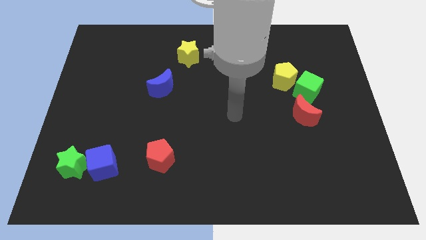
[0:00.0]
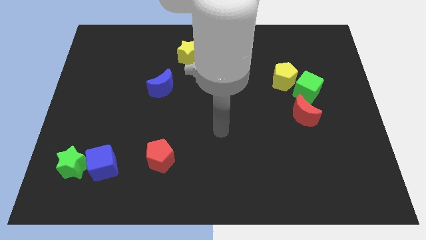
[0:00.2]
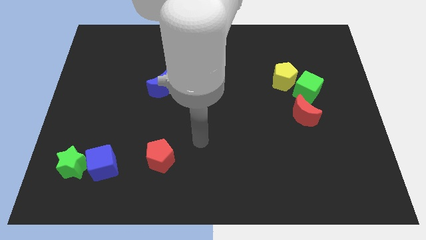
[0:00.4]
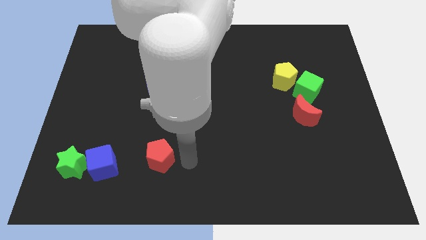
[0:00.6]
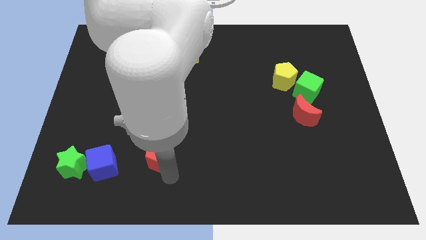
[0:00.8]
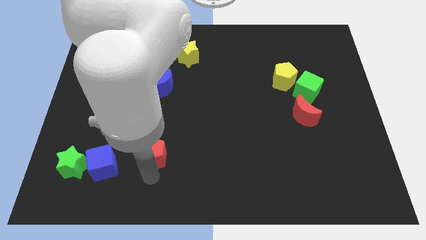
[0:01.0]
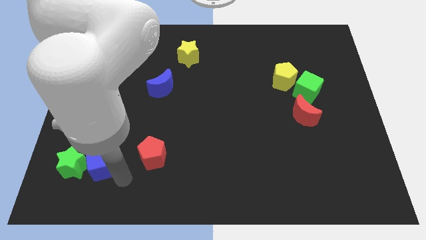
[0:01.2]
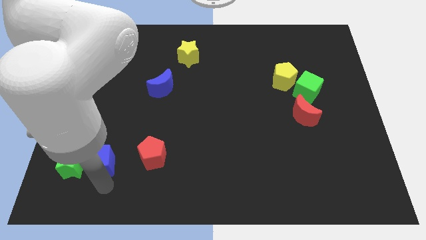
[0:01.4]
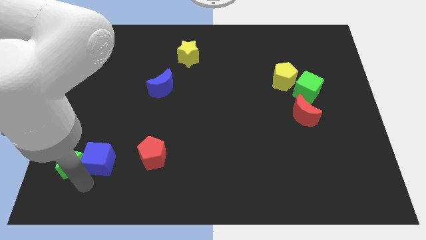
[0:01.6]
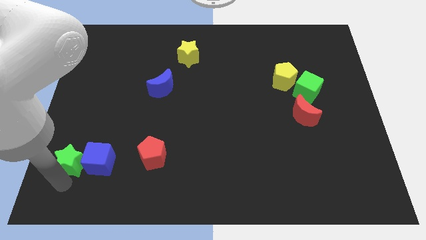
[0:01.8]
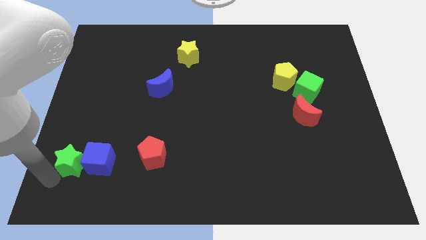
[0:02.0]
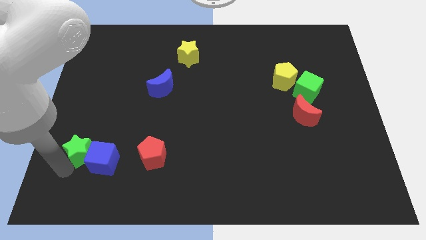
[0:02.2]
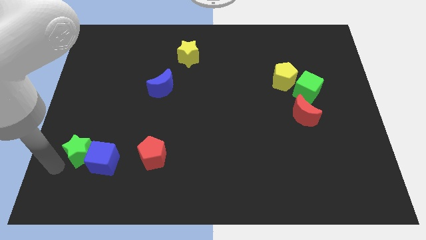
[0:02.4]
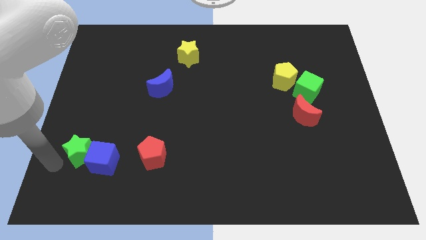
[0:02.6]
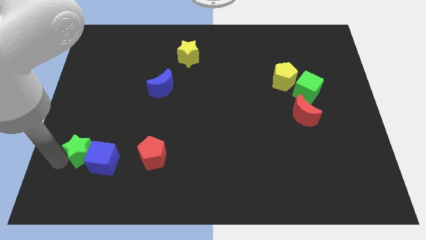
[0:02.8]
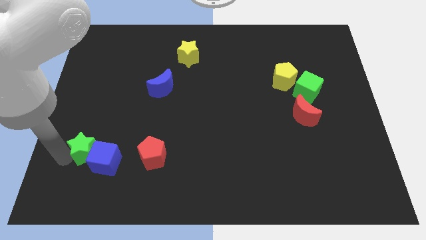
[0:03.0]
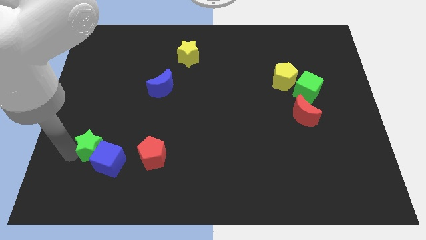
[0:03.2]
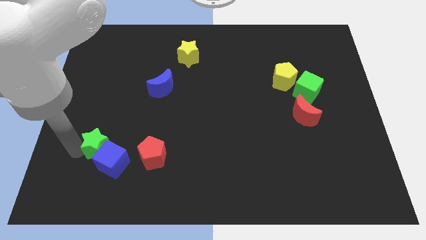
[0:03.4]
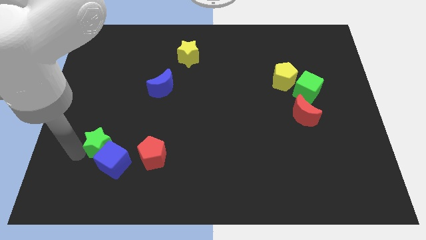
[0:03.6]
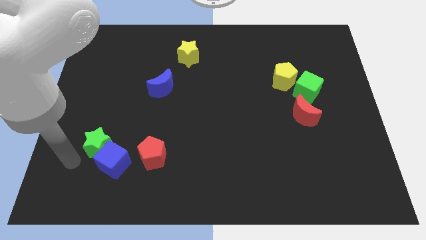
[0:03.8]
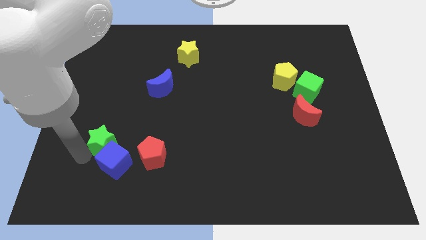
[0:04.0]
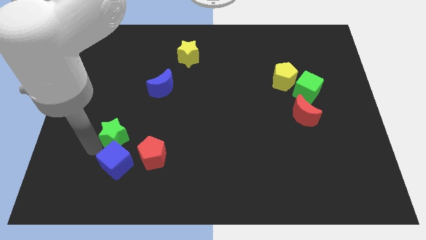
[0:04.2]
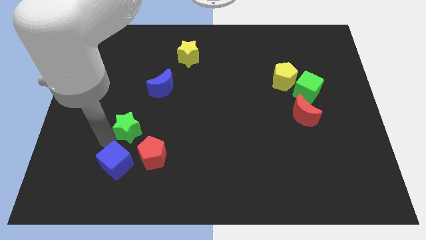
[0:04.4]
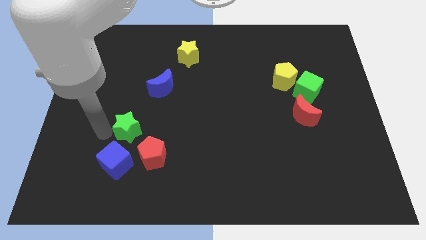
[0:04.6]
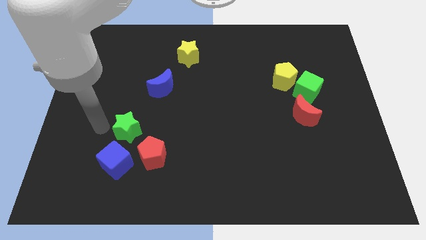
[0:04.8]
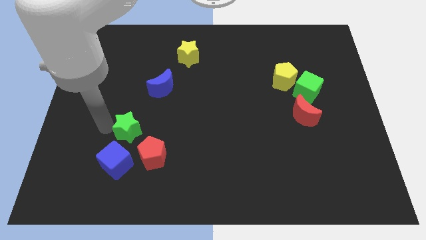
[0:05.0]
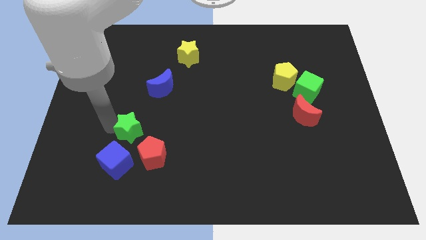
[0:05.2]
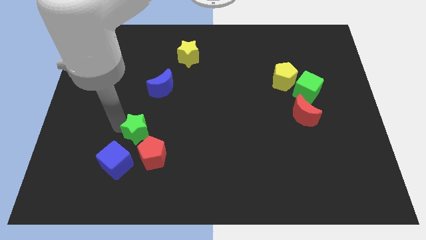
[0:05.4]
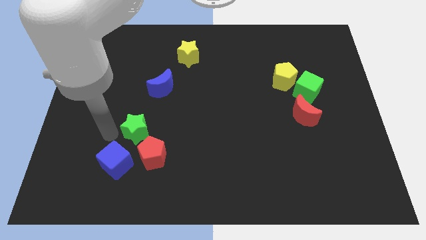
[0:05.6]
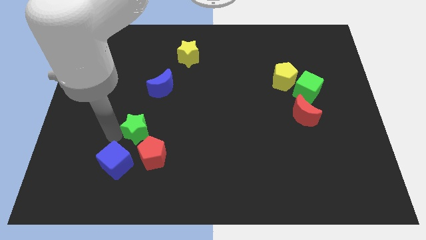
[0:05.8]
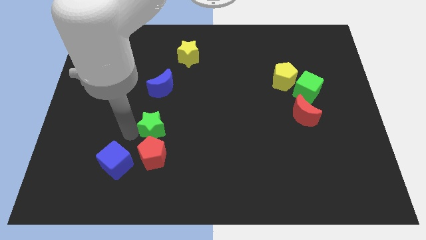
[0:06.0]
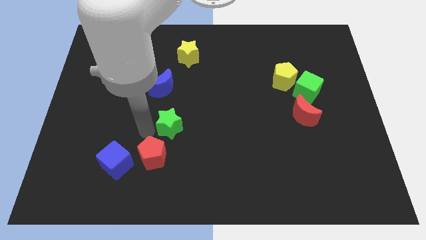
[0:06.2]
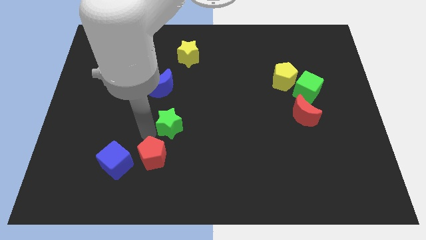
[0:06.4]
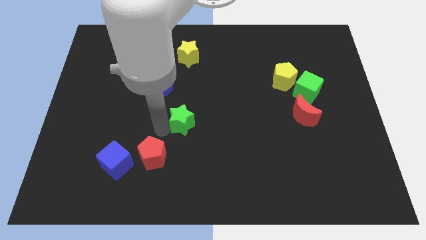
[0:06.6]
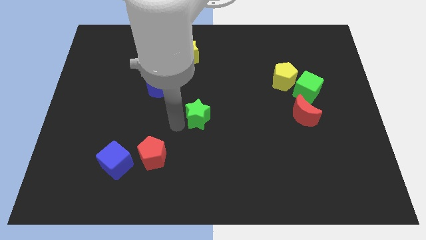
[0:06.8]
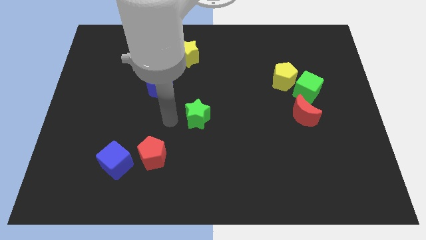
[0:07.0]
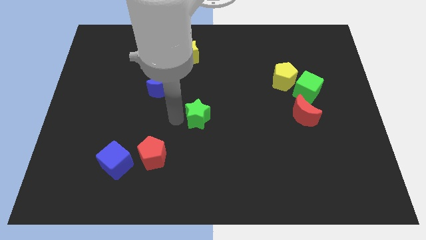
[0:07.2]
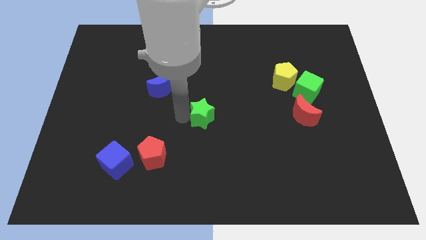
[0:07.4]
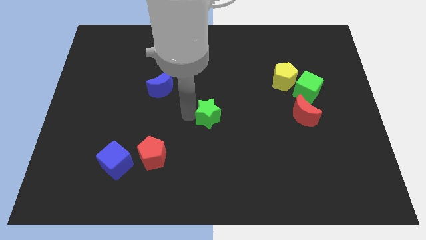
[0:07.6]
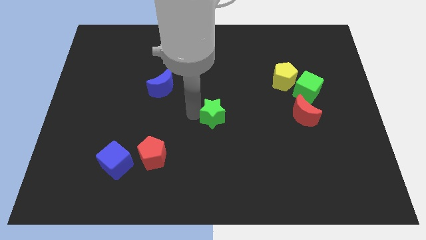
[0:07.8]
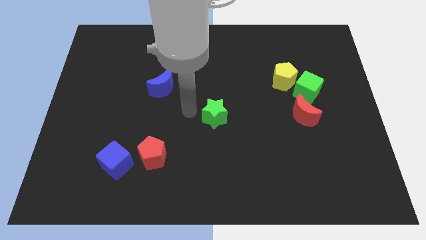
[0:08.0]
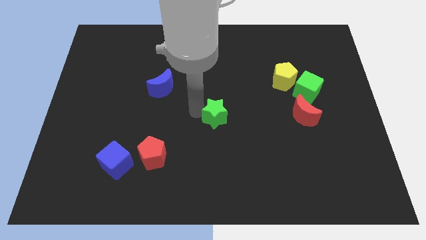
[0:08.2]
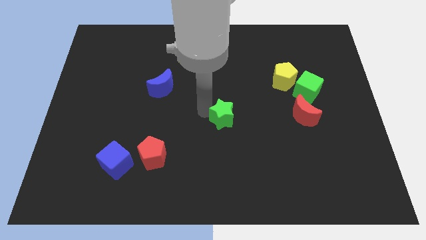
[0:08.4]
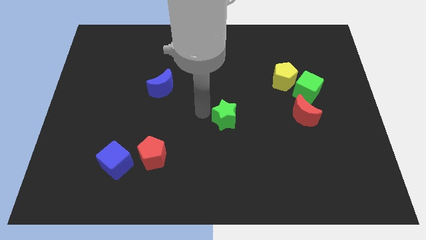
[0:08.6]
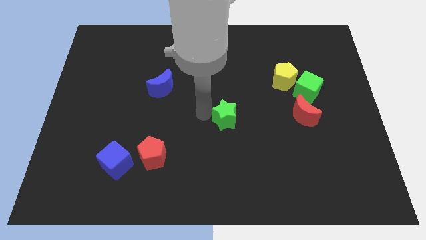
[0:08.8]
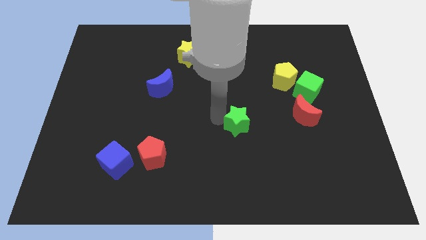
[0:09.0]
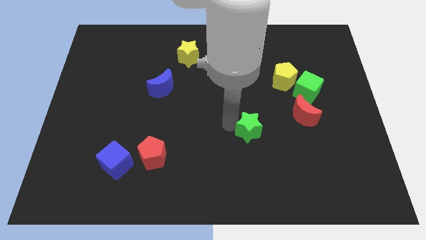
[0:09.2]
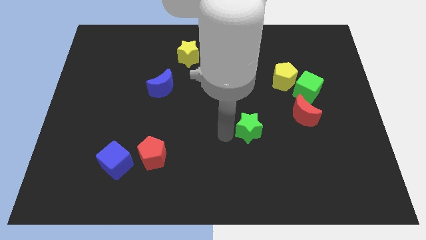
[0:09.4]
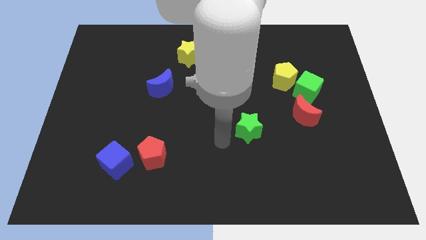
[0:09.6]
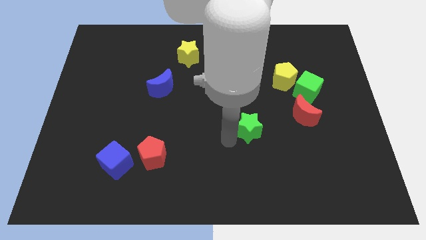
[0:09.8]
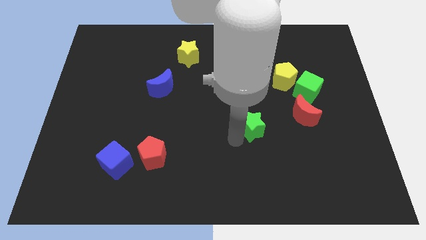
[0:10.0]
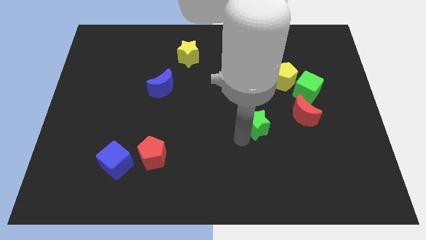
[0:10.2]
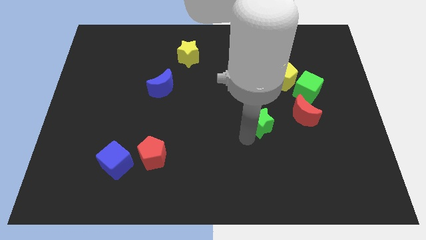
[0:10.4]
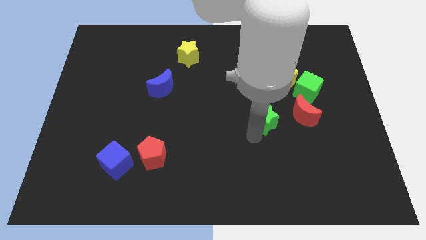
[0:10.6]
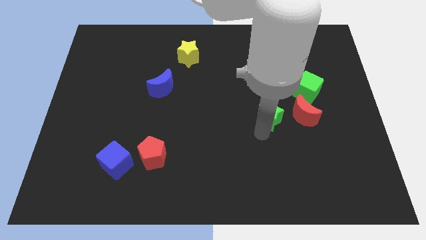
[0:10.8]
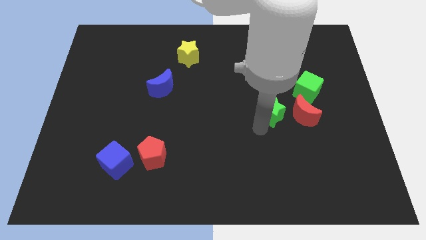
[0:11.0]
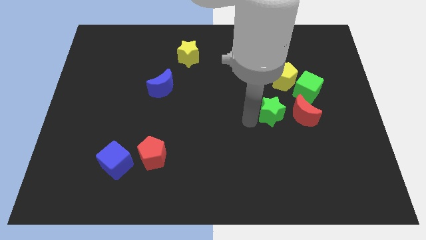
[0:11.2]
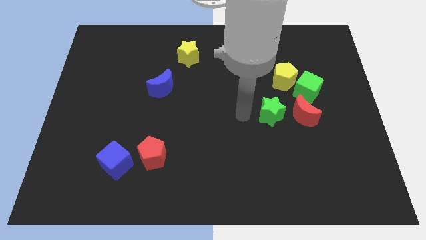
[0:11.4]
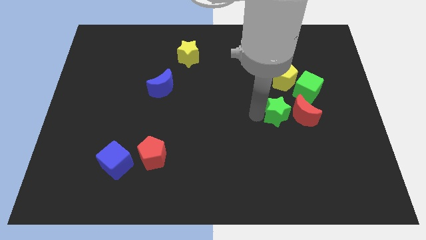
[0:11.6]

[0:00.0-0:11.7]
move the green star next to the red moon

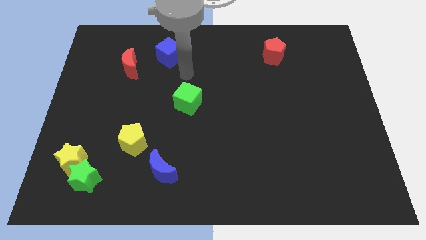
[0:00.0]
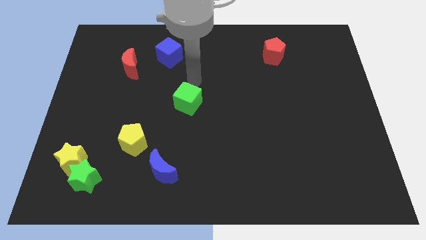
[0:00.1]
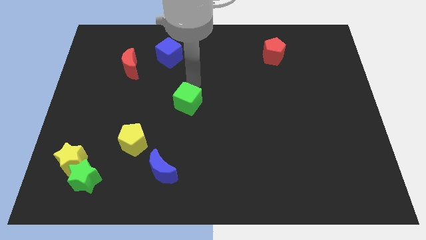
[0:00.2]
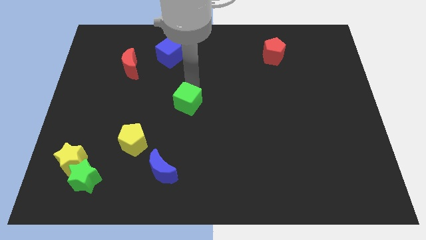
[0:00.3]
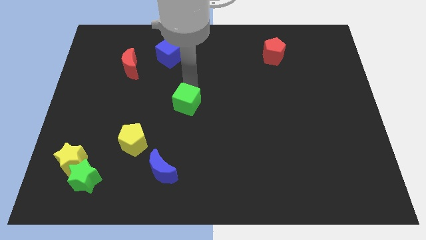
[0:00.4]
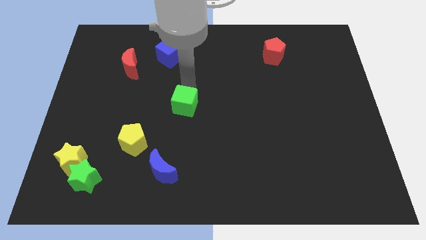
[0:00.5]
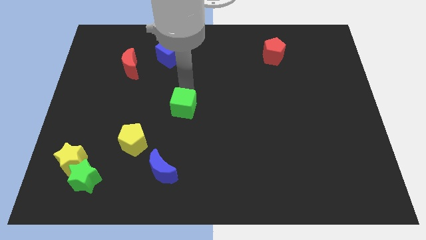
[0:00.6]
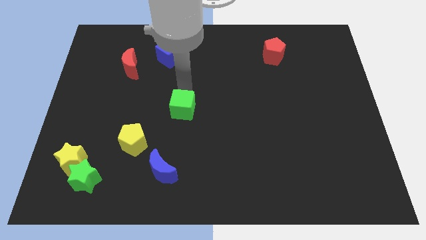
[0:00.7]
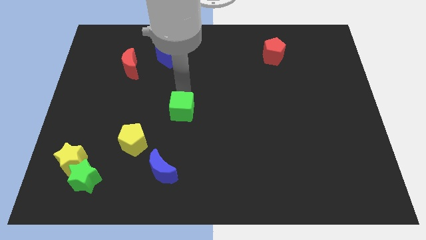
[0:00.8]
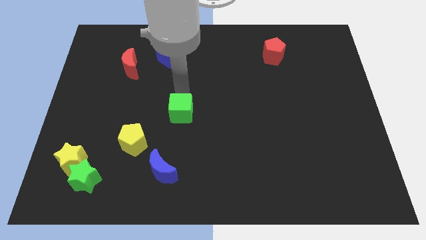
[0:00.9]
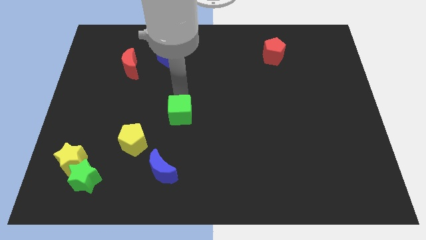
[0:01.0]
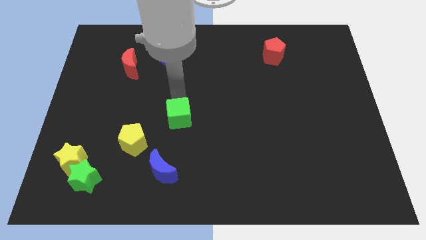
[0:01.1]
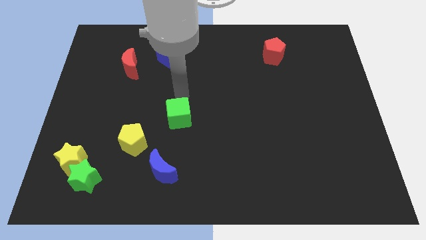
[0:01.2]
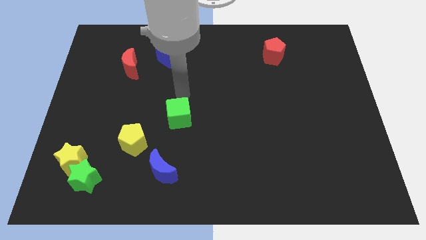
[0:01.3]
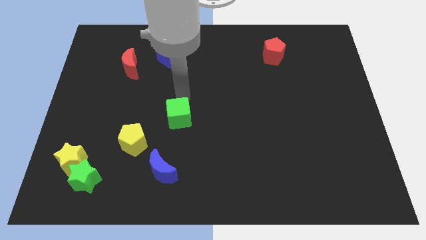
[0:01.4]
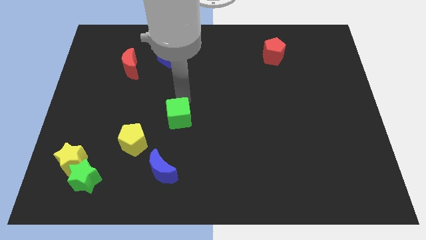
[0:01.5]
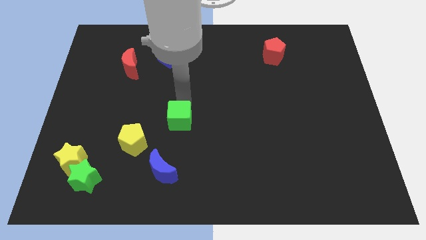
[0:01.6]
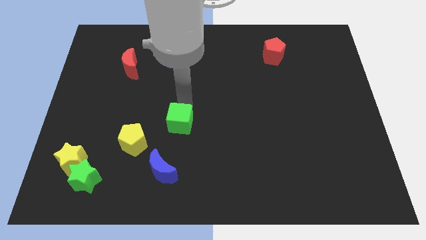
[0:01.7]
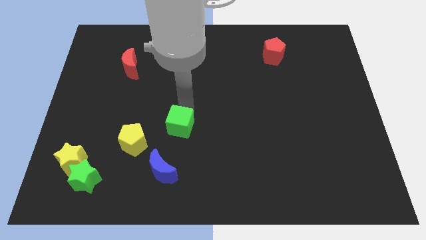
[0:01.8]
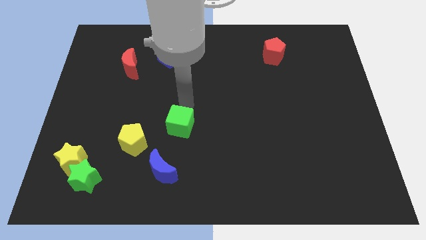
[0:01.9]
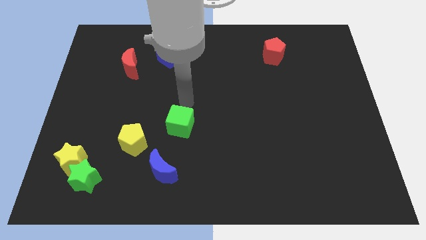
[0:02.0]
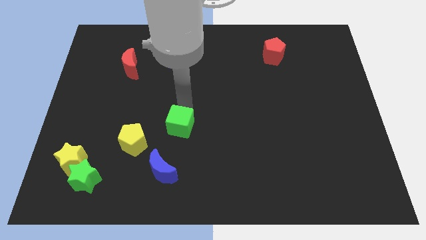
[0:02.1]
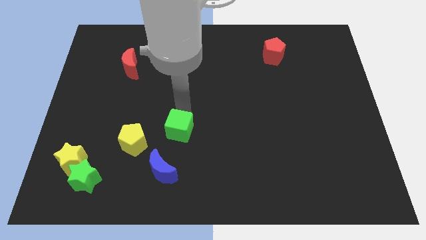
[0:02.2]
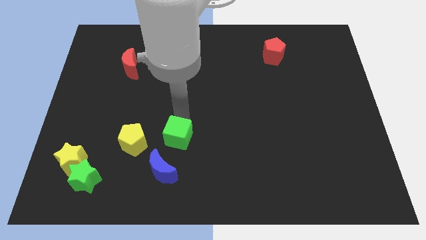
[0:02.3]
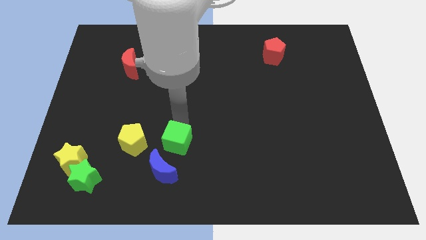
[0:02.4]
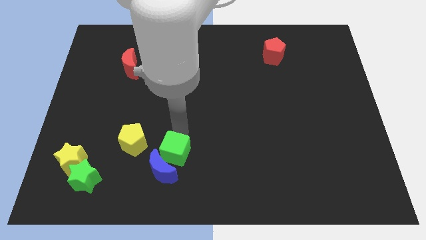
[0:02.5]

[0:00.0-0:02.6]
push the green cube towards the blue moon
